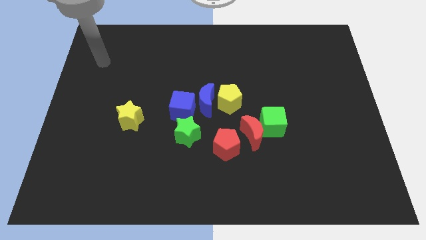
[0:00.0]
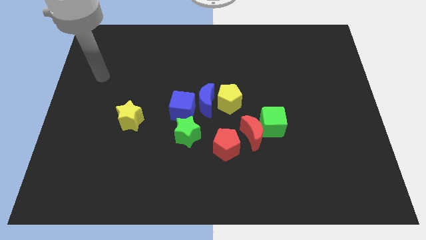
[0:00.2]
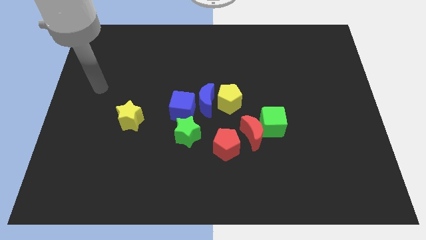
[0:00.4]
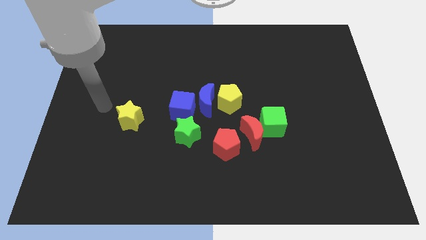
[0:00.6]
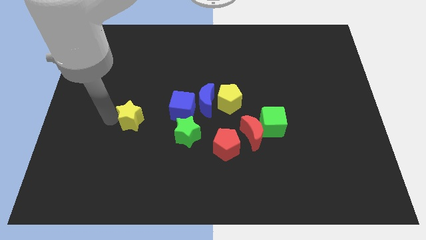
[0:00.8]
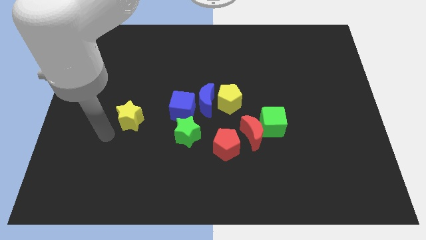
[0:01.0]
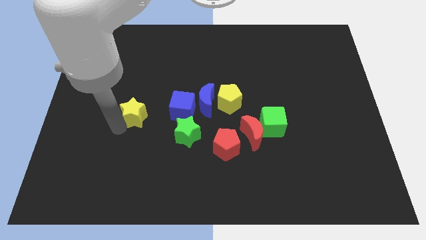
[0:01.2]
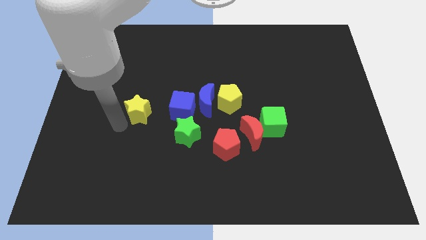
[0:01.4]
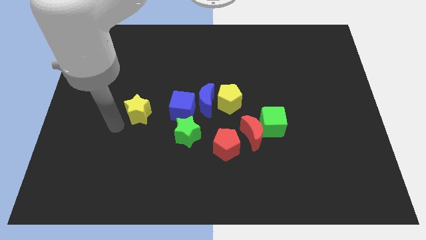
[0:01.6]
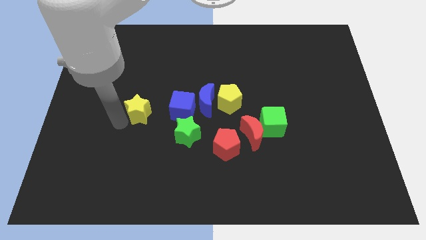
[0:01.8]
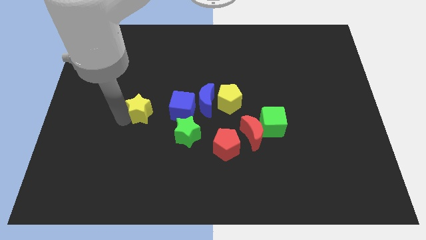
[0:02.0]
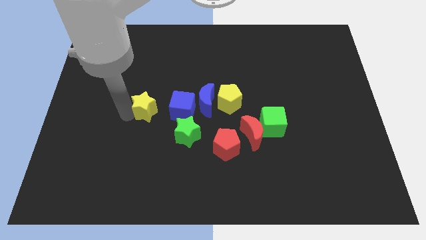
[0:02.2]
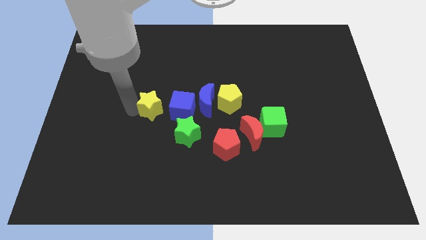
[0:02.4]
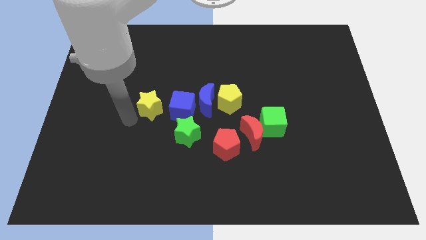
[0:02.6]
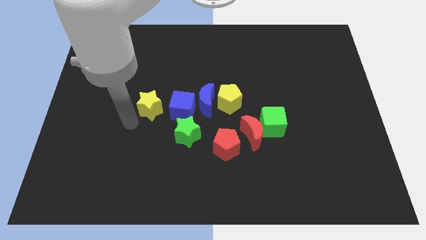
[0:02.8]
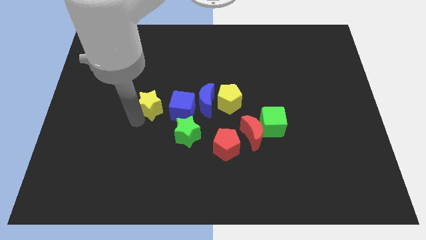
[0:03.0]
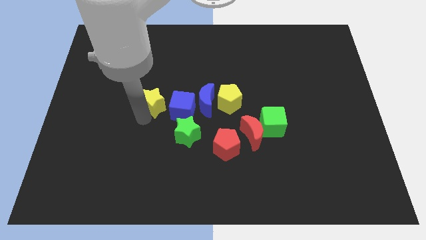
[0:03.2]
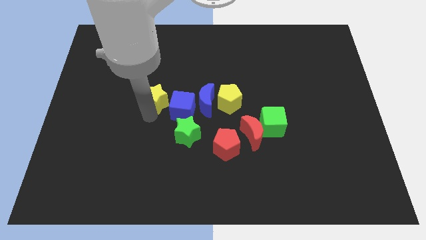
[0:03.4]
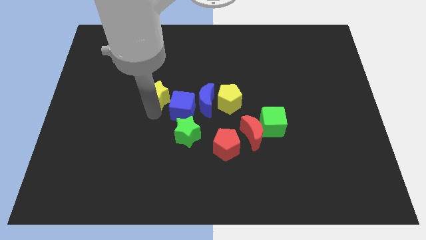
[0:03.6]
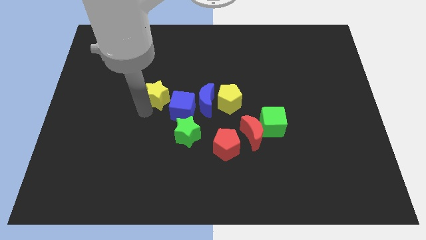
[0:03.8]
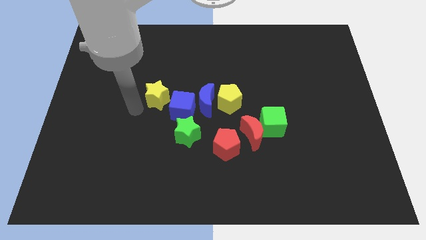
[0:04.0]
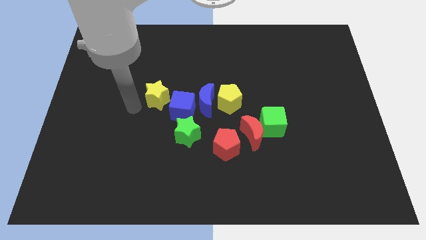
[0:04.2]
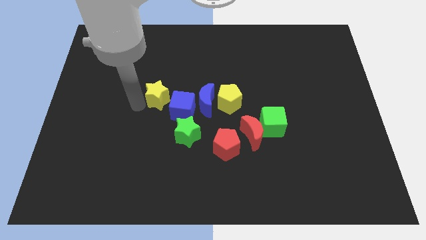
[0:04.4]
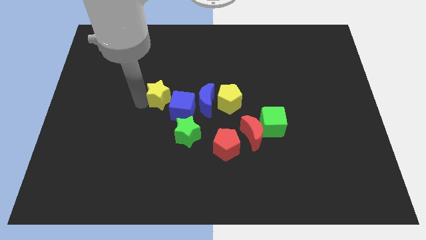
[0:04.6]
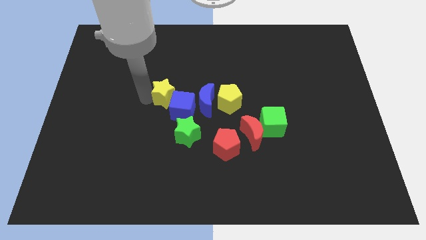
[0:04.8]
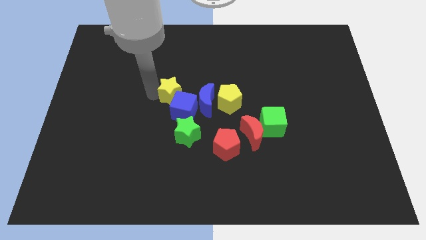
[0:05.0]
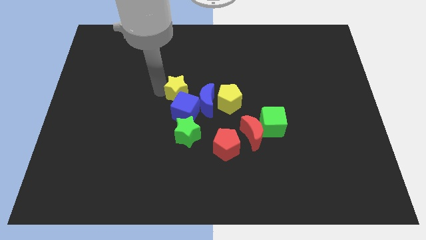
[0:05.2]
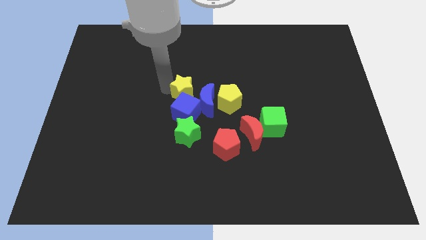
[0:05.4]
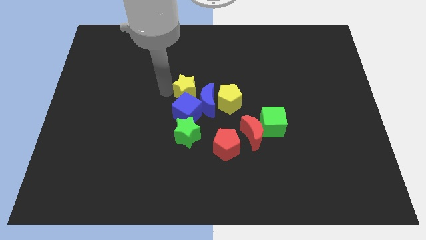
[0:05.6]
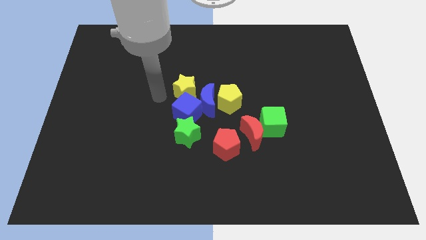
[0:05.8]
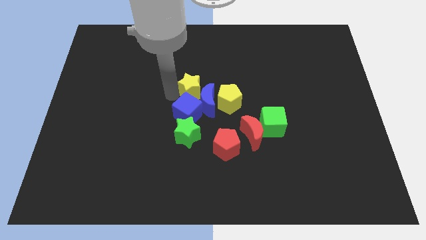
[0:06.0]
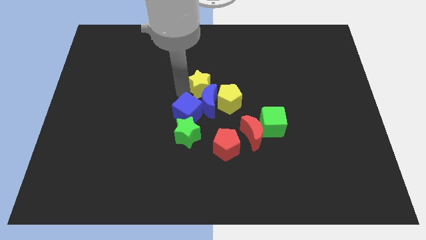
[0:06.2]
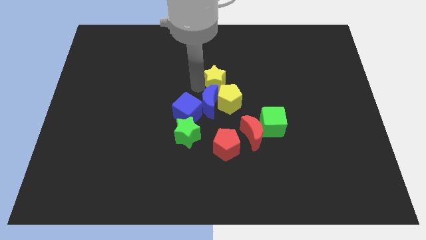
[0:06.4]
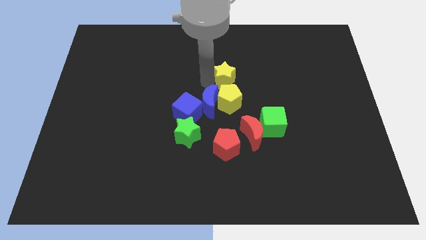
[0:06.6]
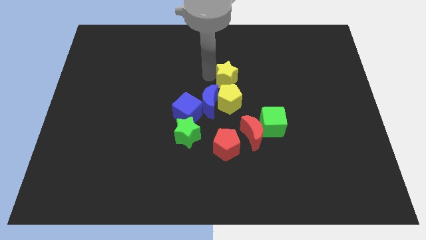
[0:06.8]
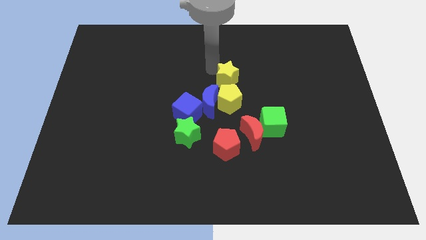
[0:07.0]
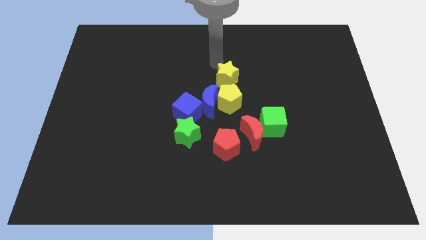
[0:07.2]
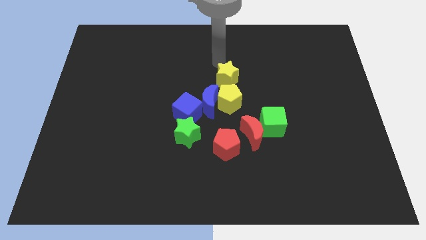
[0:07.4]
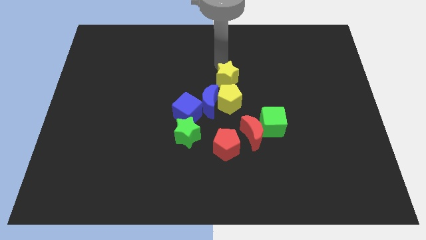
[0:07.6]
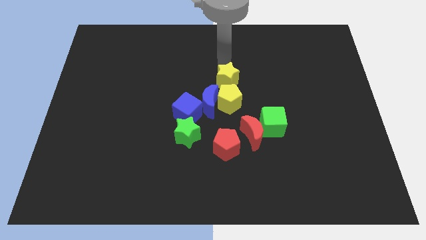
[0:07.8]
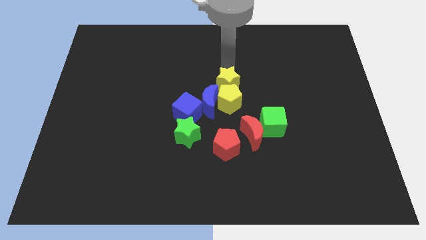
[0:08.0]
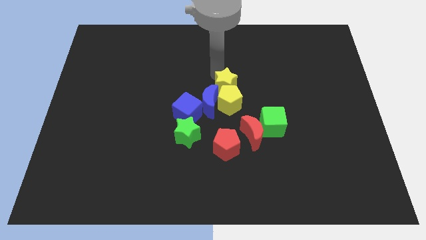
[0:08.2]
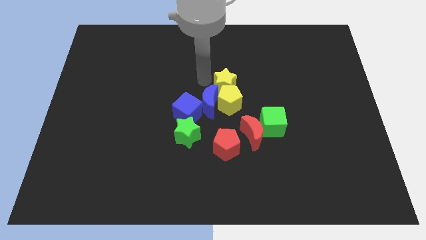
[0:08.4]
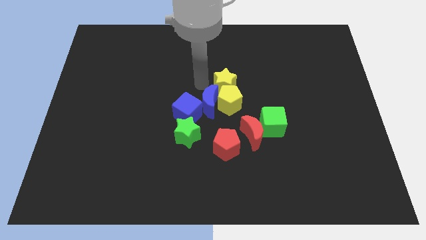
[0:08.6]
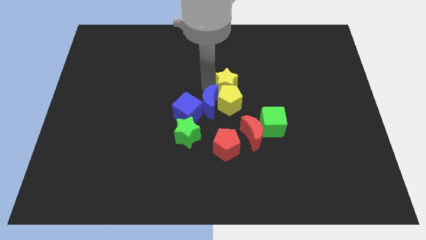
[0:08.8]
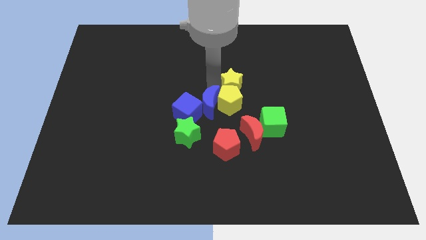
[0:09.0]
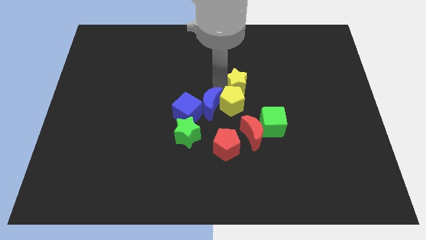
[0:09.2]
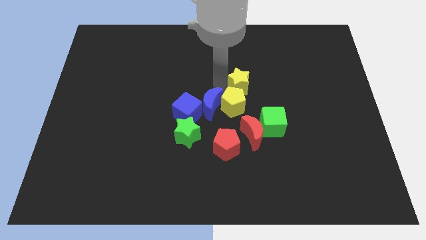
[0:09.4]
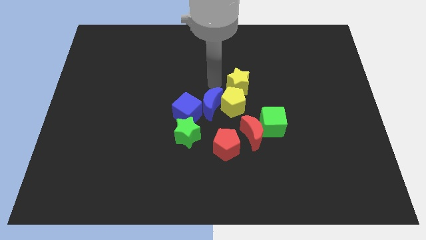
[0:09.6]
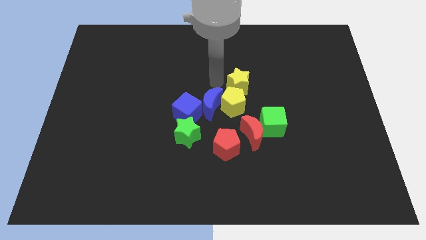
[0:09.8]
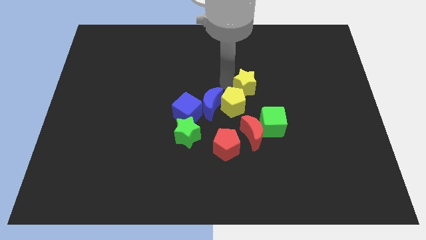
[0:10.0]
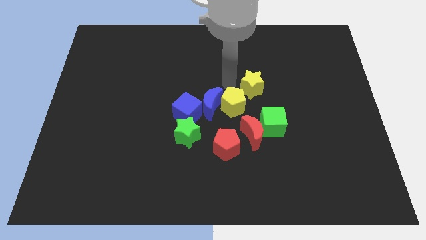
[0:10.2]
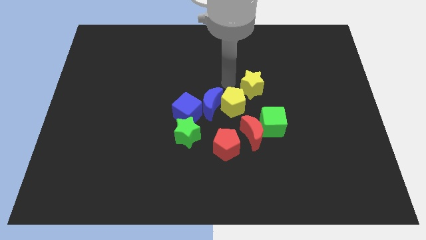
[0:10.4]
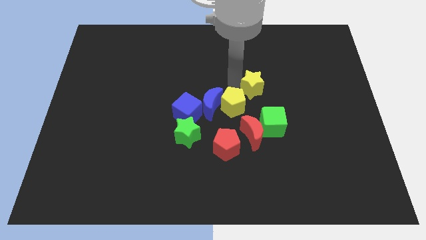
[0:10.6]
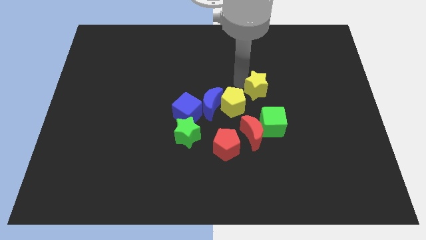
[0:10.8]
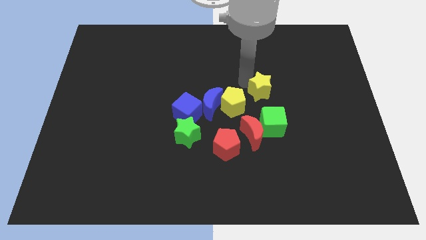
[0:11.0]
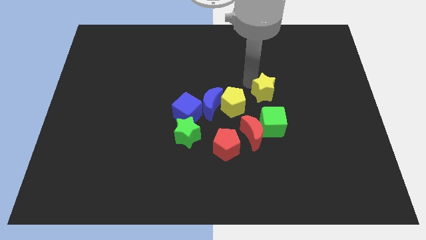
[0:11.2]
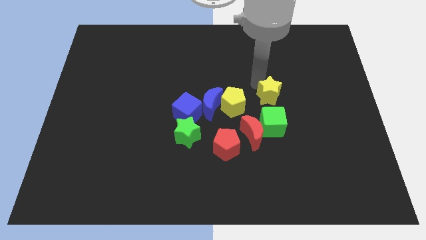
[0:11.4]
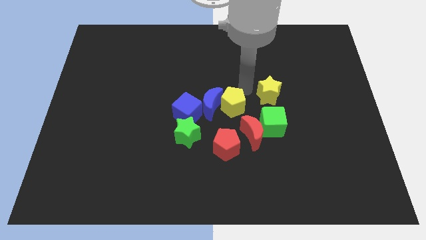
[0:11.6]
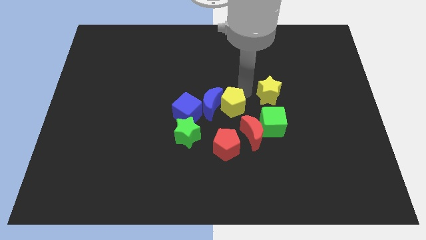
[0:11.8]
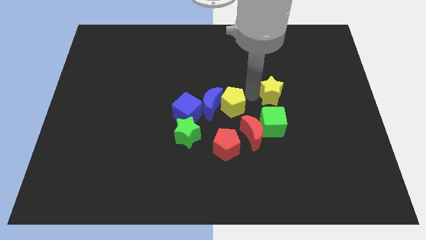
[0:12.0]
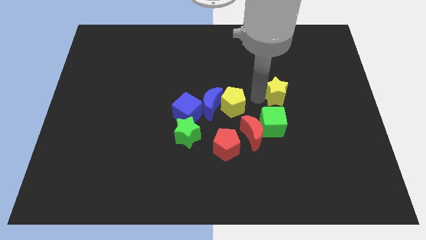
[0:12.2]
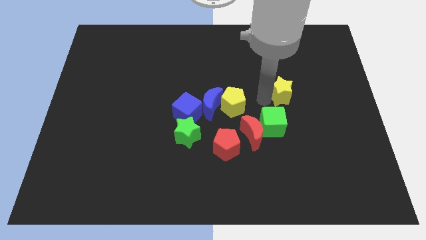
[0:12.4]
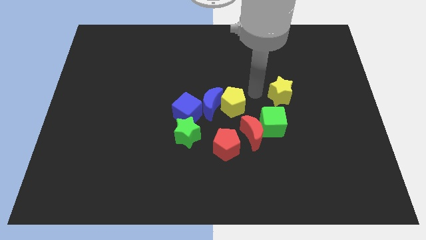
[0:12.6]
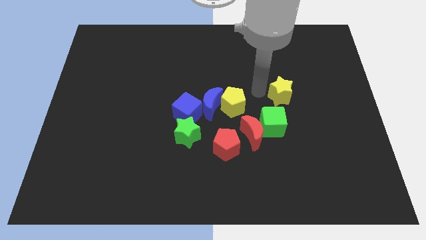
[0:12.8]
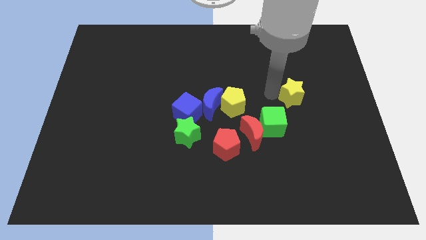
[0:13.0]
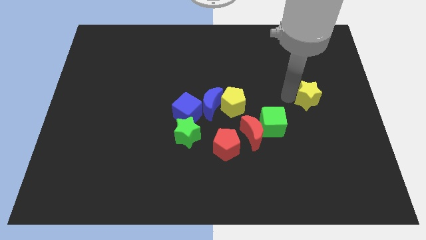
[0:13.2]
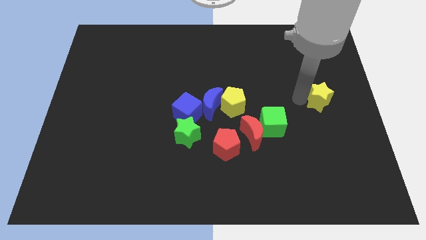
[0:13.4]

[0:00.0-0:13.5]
push the yellow star to the center right
